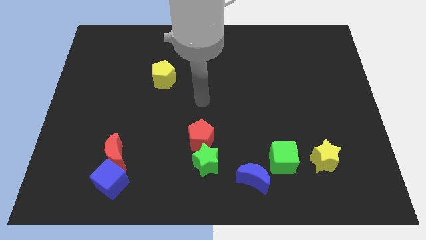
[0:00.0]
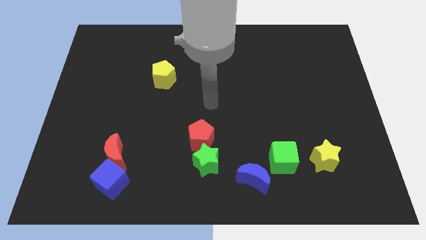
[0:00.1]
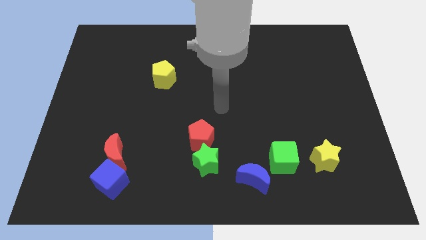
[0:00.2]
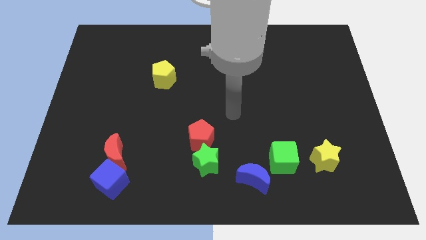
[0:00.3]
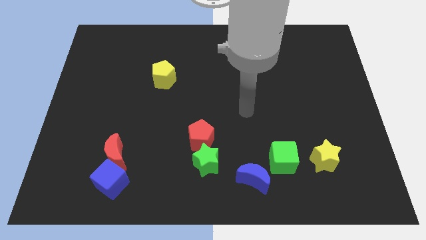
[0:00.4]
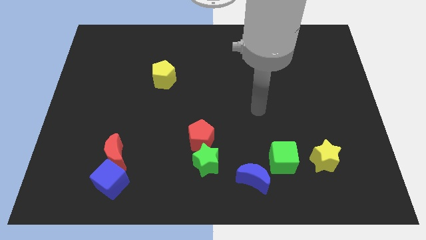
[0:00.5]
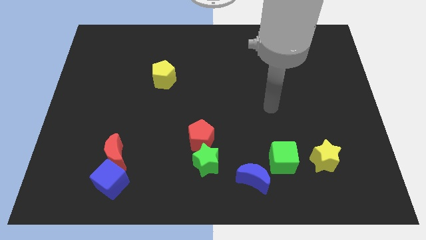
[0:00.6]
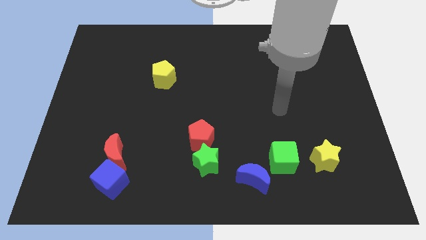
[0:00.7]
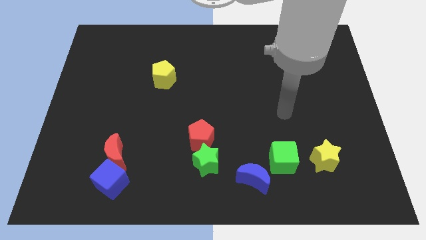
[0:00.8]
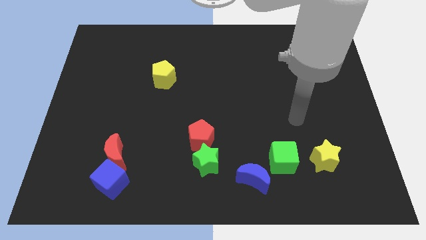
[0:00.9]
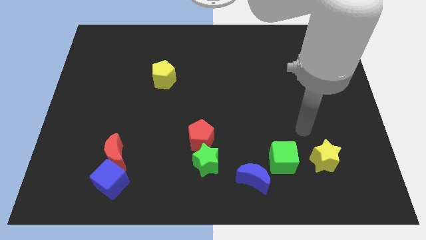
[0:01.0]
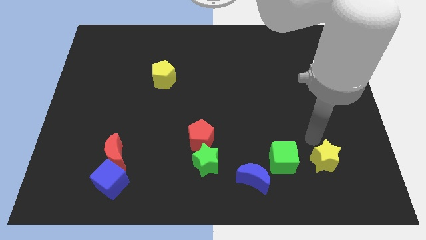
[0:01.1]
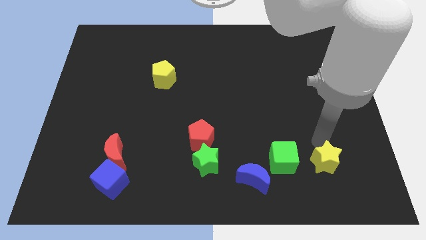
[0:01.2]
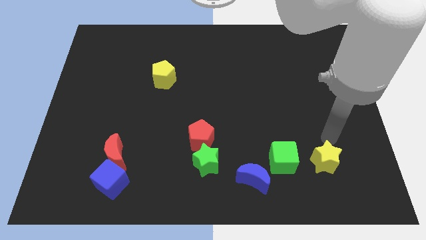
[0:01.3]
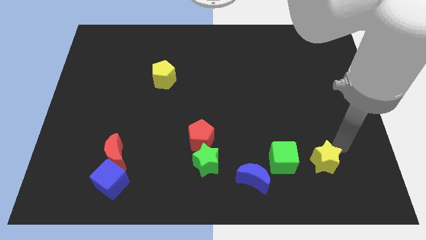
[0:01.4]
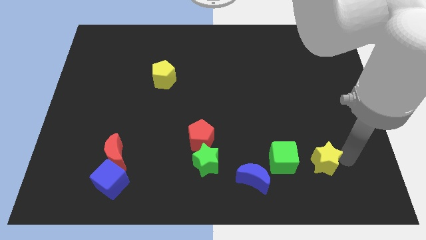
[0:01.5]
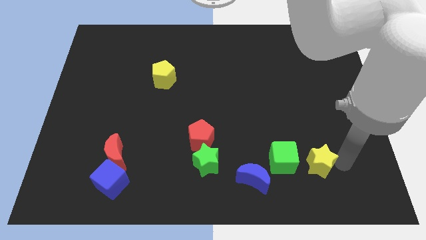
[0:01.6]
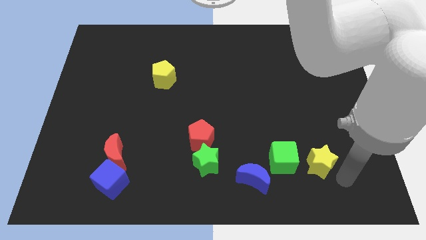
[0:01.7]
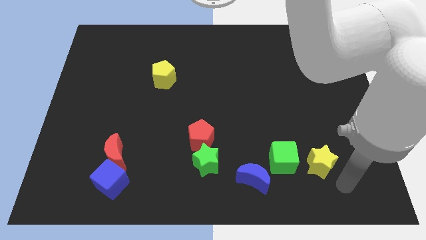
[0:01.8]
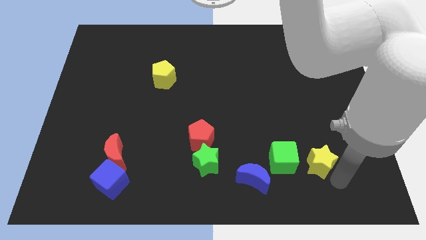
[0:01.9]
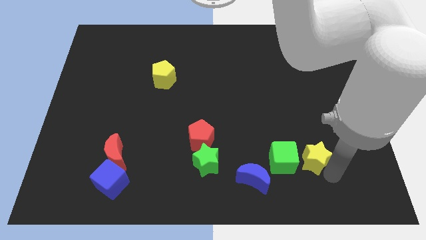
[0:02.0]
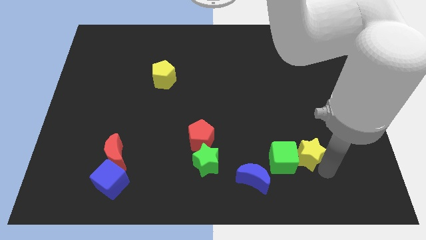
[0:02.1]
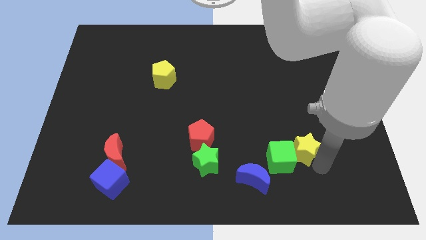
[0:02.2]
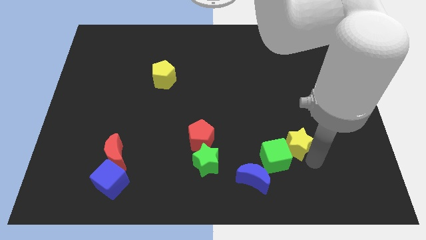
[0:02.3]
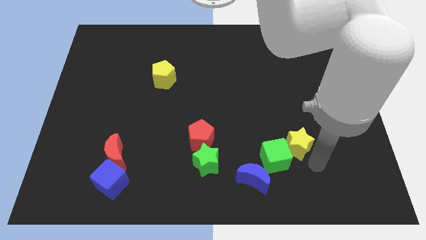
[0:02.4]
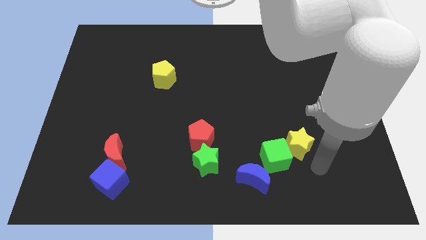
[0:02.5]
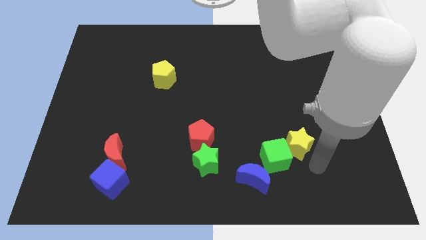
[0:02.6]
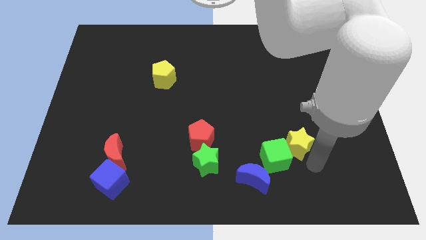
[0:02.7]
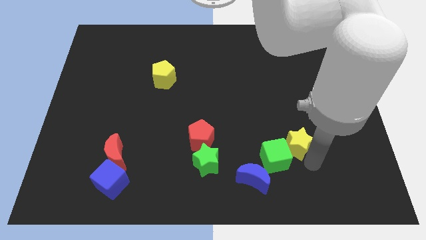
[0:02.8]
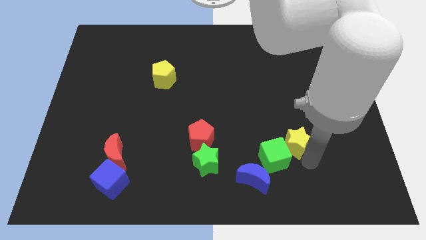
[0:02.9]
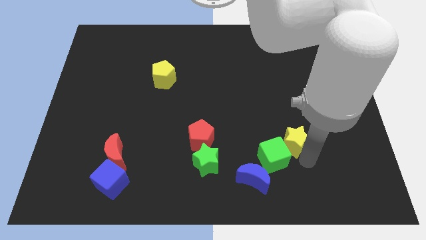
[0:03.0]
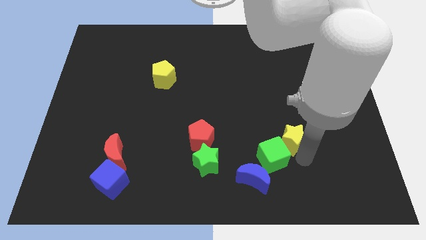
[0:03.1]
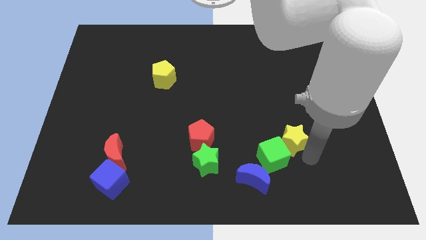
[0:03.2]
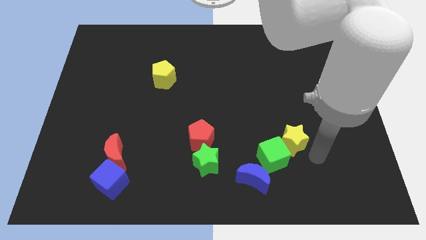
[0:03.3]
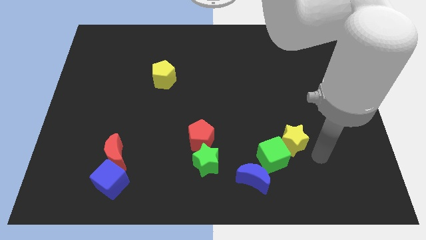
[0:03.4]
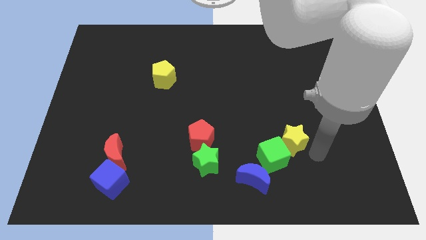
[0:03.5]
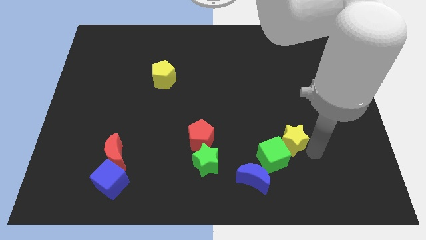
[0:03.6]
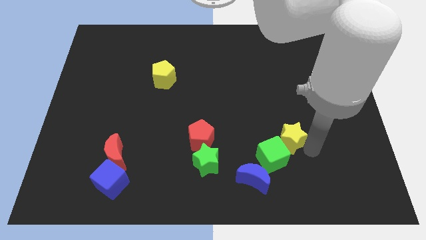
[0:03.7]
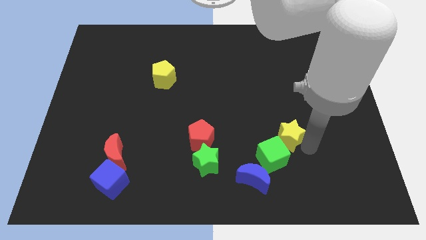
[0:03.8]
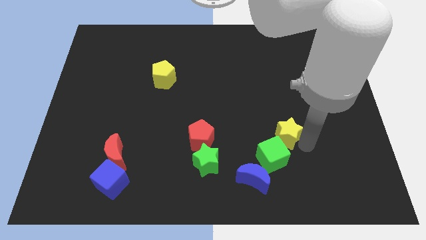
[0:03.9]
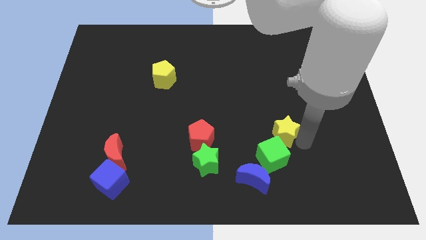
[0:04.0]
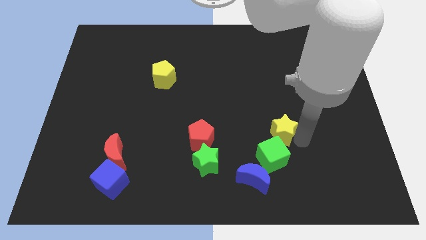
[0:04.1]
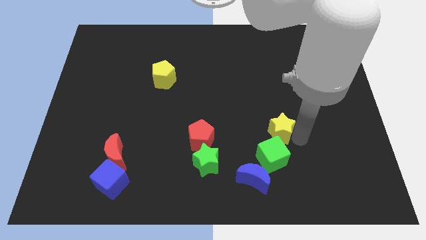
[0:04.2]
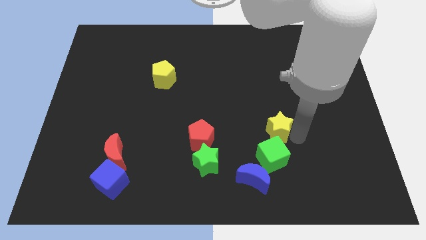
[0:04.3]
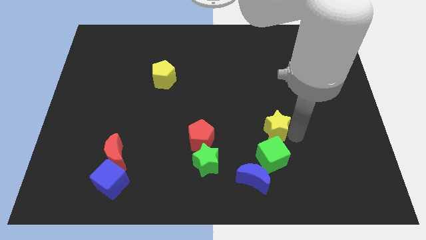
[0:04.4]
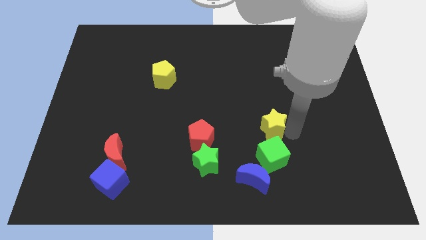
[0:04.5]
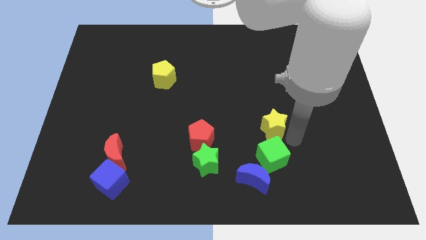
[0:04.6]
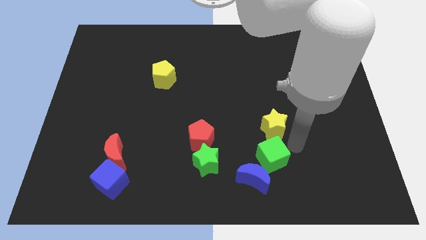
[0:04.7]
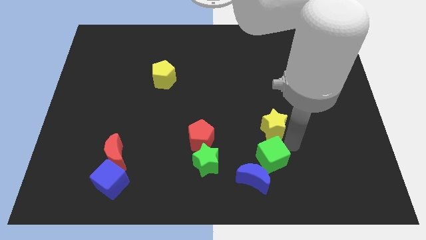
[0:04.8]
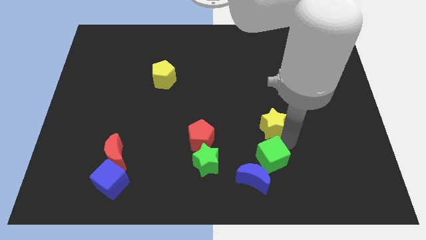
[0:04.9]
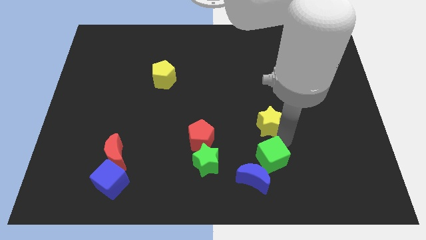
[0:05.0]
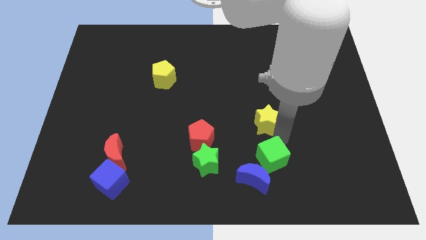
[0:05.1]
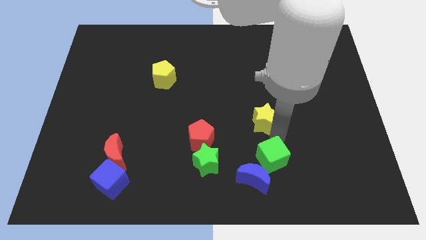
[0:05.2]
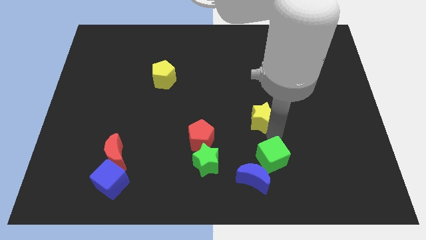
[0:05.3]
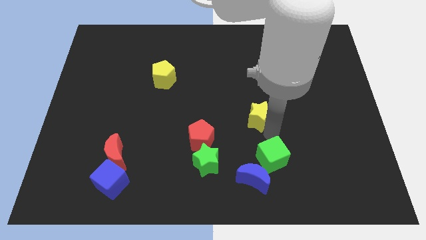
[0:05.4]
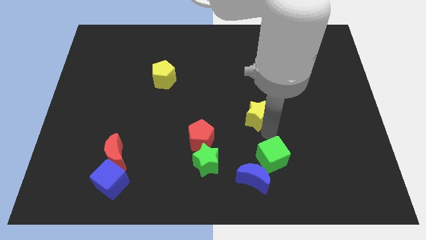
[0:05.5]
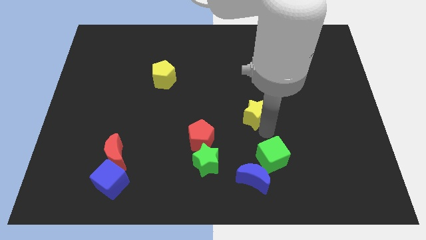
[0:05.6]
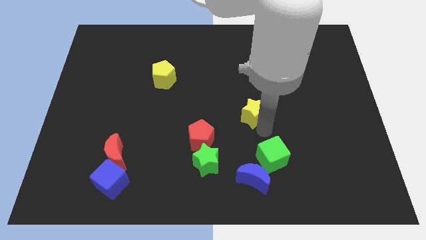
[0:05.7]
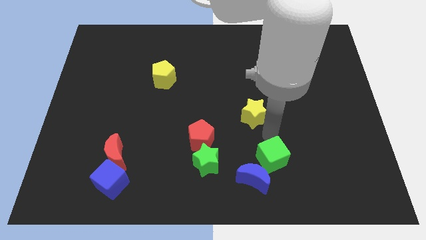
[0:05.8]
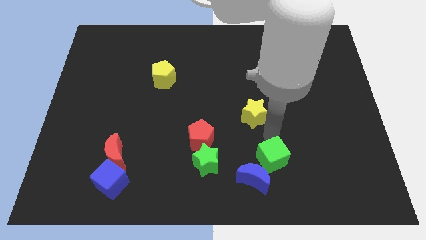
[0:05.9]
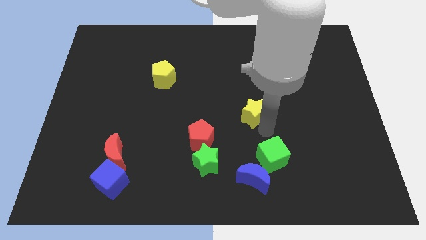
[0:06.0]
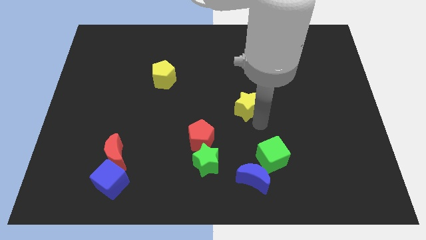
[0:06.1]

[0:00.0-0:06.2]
push the yellow star up and left

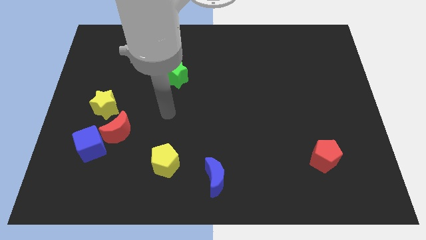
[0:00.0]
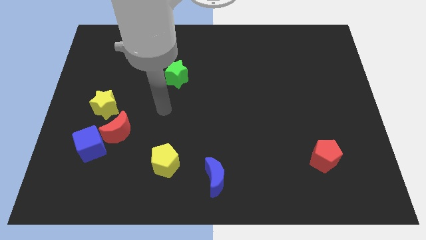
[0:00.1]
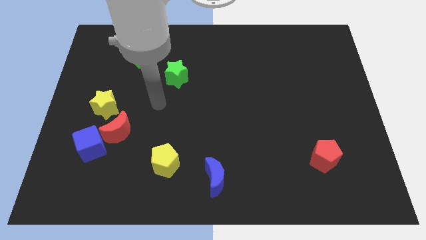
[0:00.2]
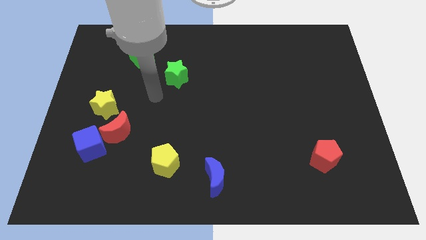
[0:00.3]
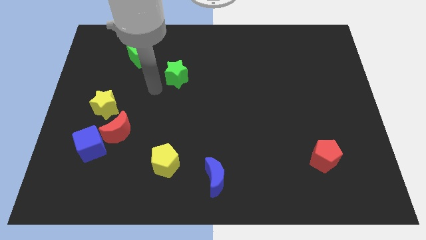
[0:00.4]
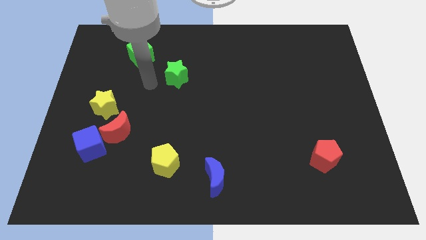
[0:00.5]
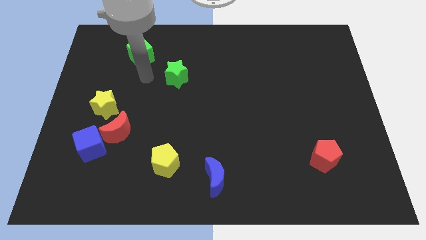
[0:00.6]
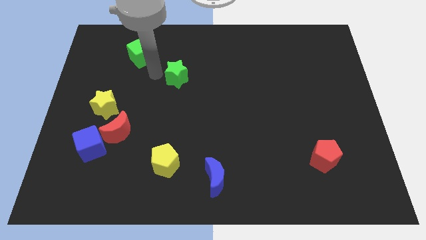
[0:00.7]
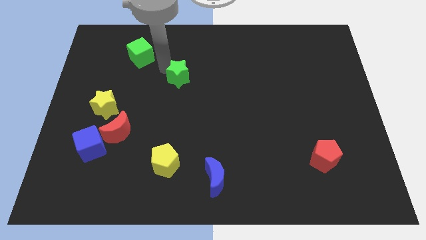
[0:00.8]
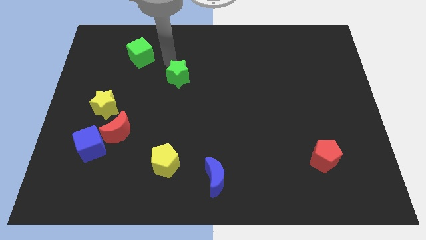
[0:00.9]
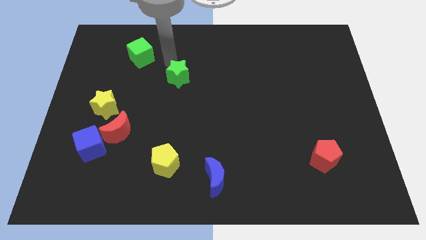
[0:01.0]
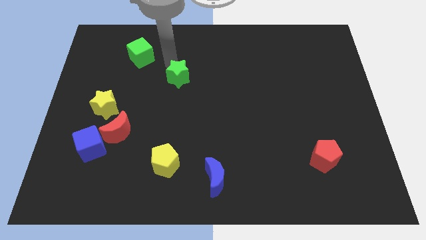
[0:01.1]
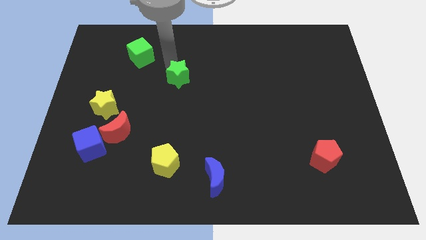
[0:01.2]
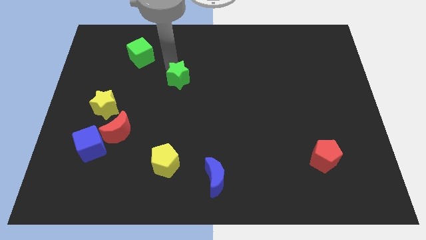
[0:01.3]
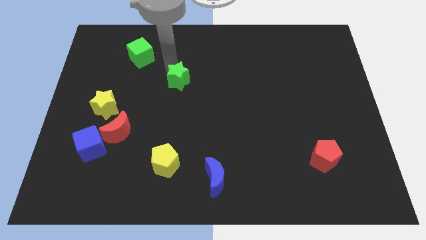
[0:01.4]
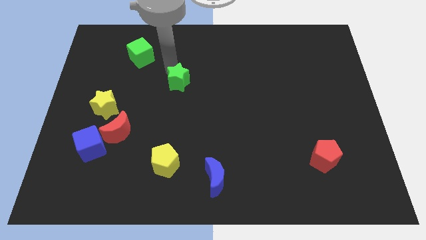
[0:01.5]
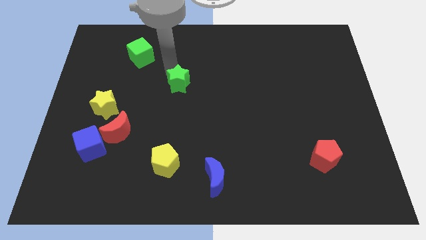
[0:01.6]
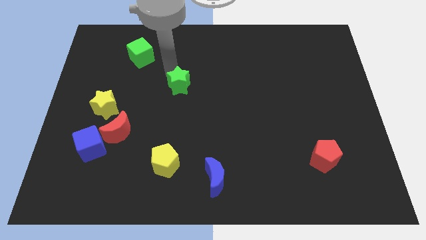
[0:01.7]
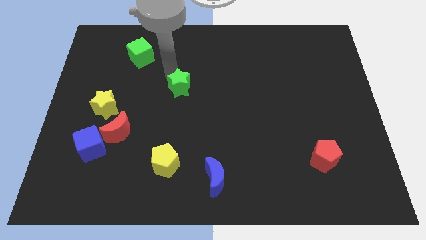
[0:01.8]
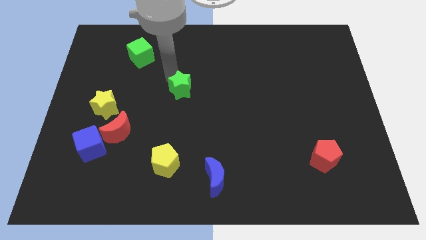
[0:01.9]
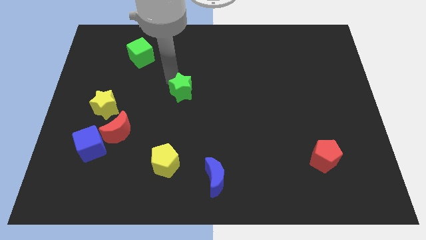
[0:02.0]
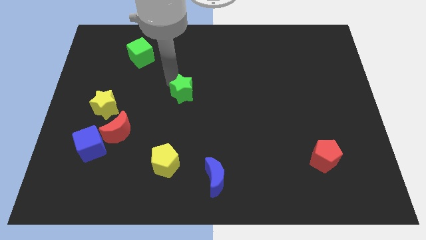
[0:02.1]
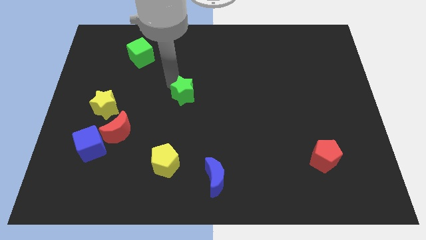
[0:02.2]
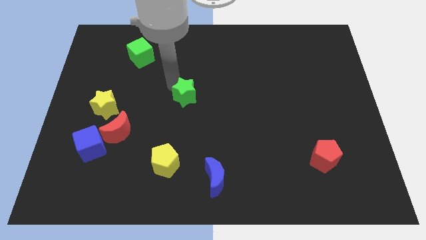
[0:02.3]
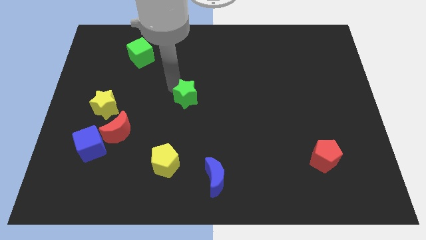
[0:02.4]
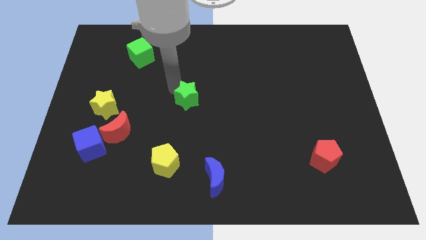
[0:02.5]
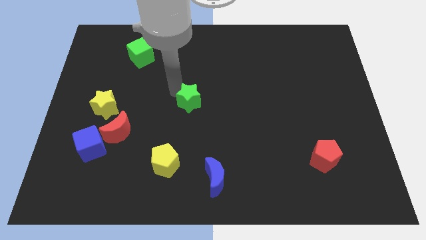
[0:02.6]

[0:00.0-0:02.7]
push the green star a bit downwards and then to the right
